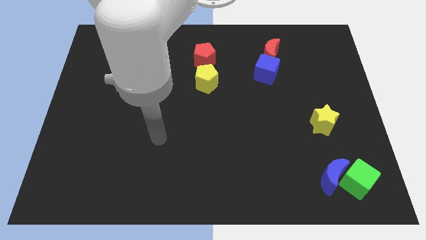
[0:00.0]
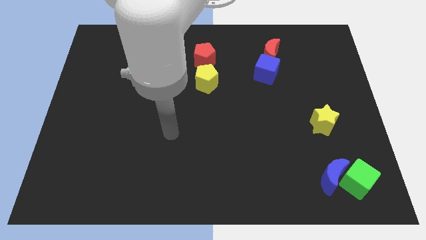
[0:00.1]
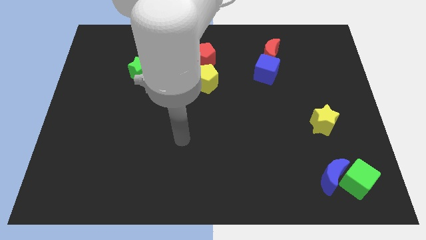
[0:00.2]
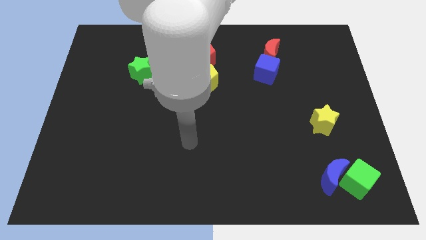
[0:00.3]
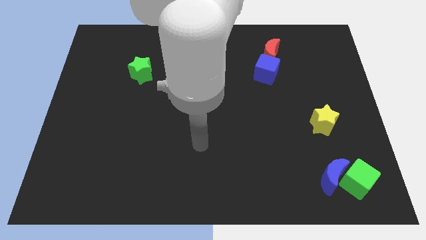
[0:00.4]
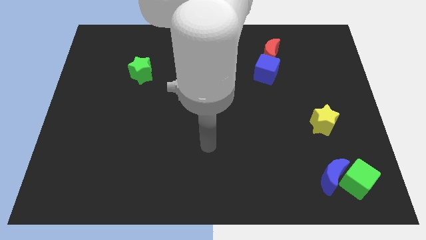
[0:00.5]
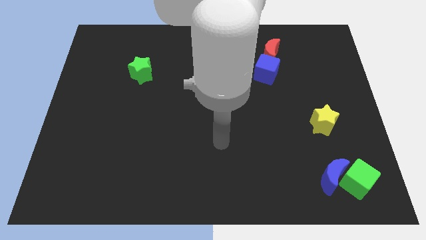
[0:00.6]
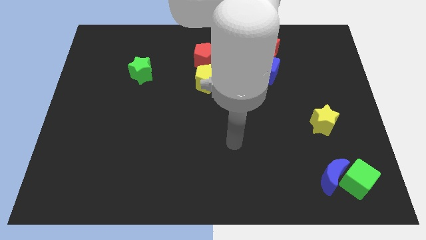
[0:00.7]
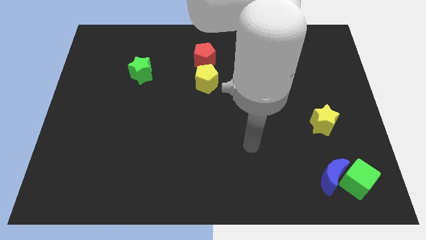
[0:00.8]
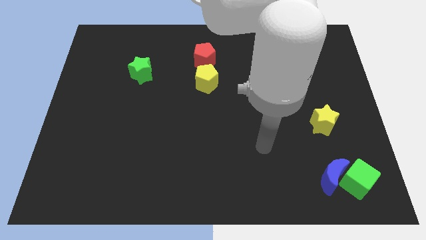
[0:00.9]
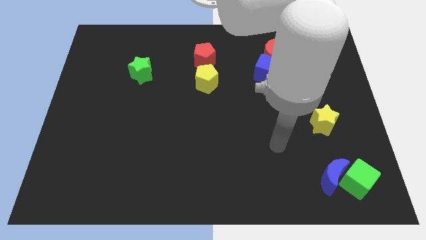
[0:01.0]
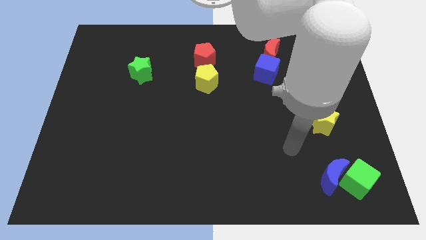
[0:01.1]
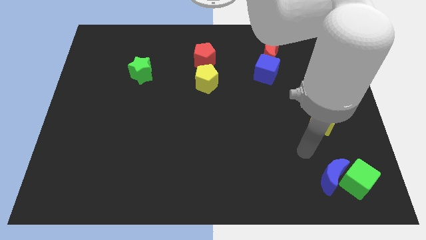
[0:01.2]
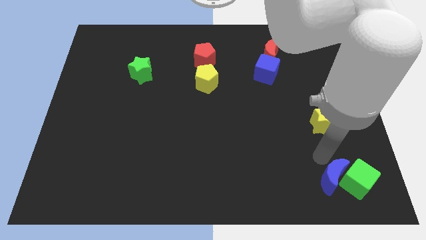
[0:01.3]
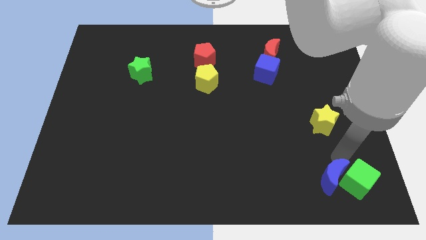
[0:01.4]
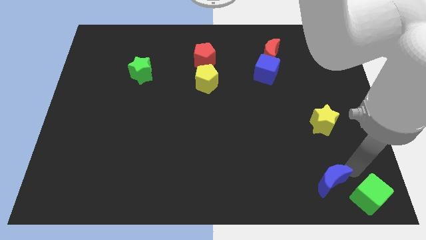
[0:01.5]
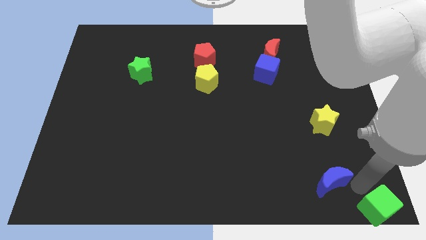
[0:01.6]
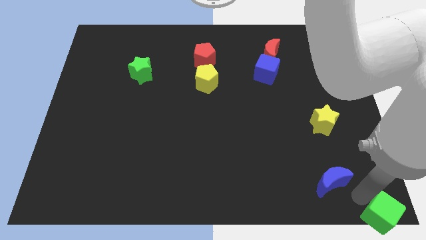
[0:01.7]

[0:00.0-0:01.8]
pull the blue moon apart from the green cube

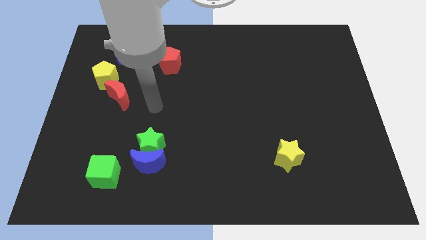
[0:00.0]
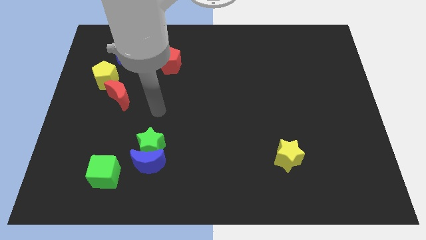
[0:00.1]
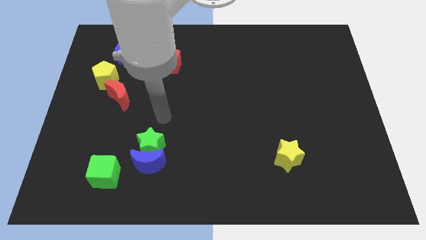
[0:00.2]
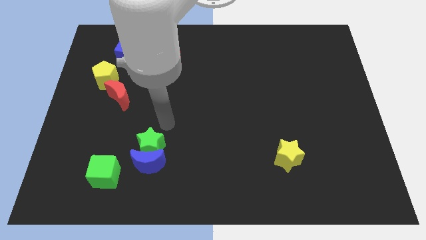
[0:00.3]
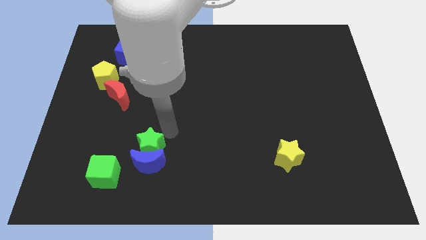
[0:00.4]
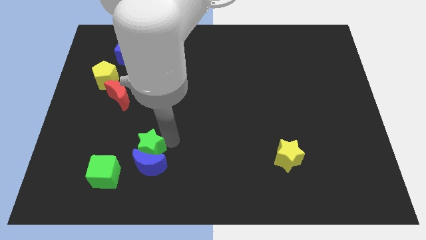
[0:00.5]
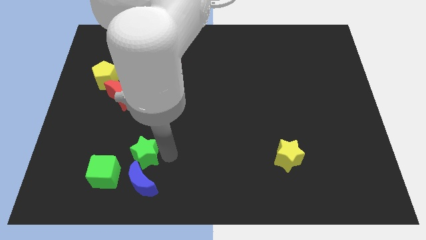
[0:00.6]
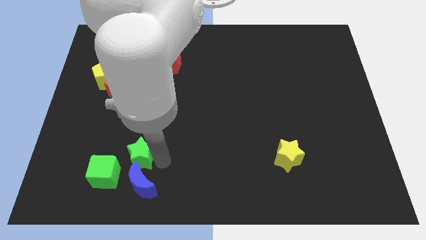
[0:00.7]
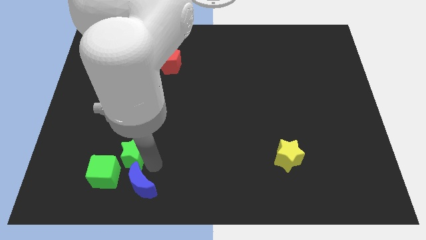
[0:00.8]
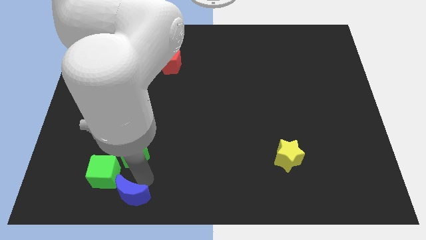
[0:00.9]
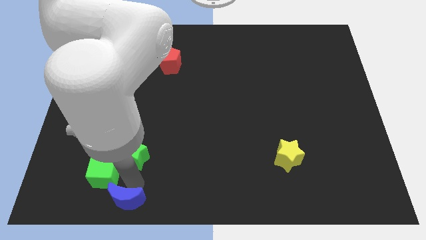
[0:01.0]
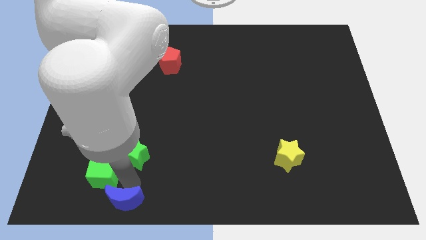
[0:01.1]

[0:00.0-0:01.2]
pull the green star apart from the blue moon

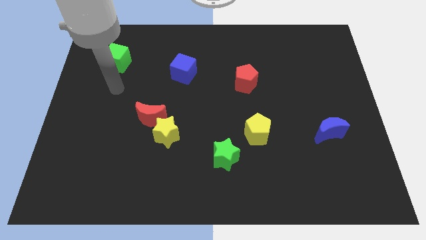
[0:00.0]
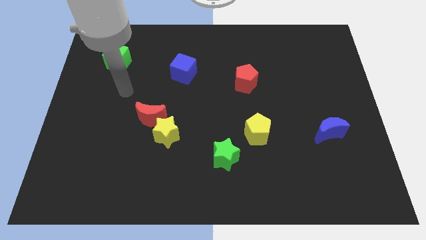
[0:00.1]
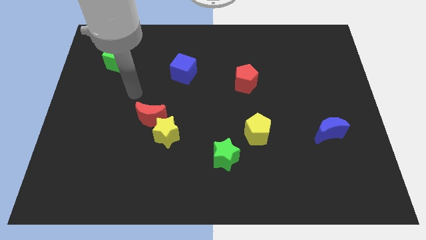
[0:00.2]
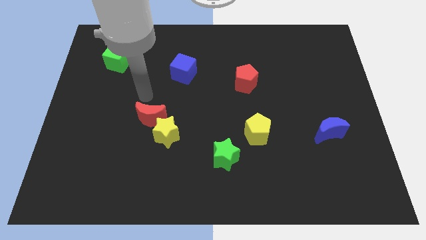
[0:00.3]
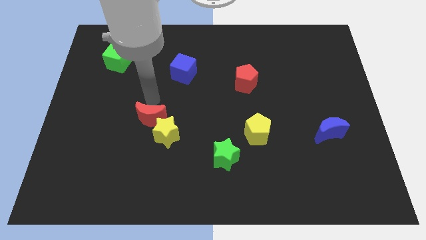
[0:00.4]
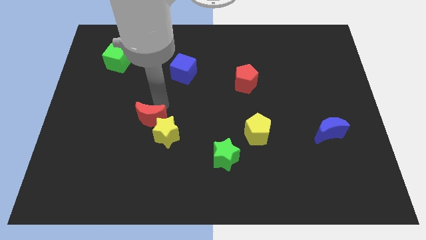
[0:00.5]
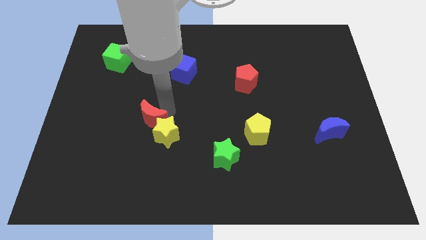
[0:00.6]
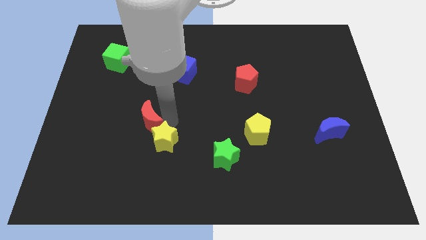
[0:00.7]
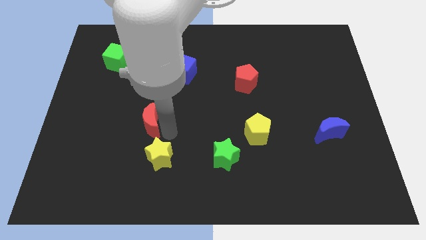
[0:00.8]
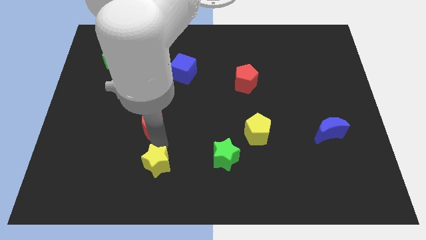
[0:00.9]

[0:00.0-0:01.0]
pull the red moon apart from the yellow star

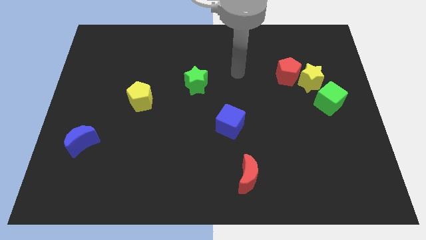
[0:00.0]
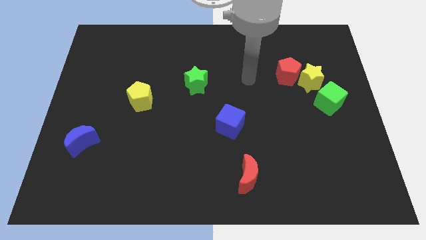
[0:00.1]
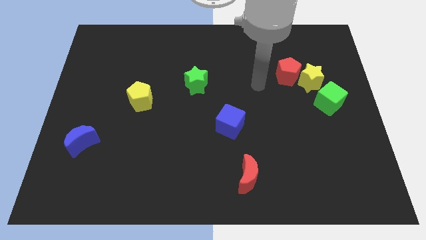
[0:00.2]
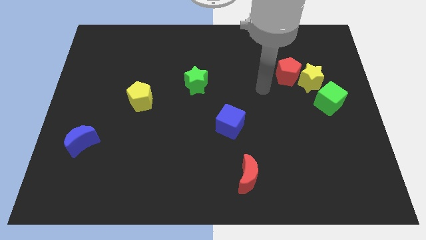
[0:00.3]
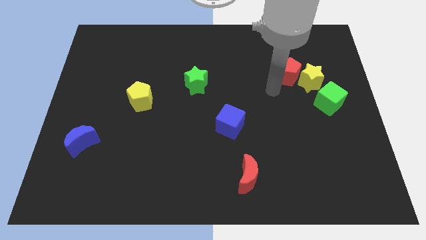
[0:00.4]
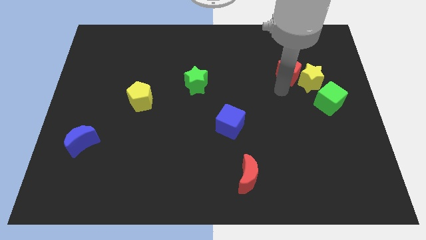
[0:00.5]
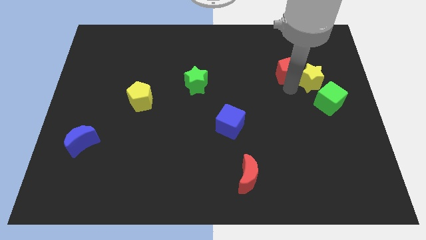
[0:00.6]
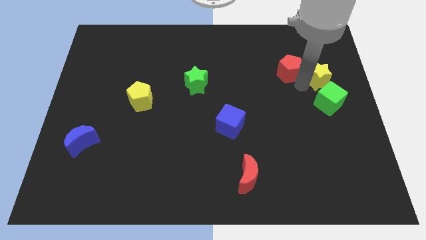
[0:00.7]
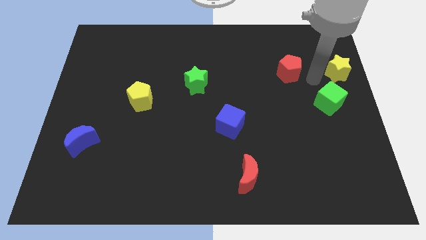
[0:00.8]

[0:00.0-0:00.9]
pull the red pentagon apart from the yellow star

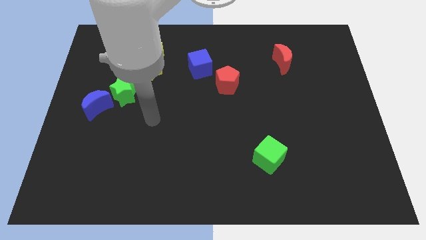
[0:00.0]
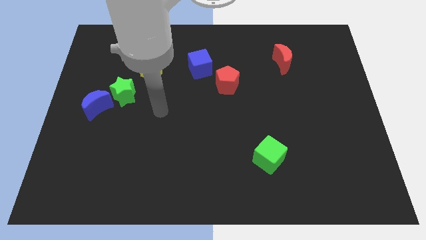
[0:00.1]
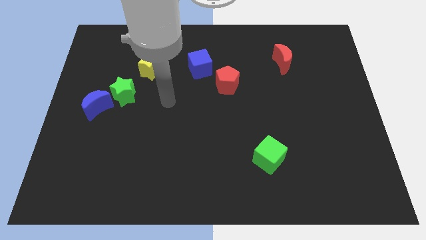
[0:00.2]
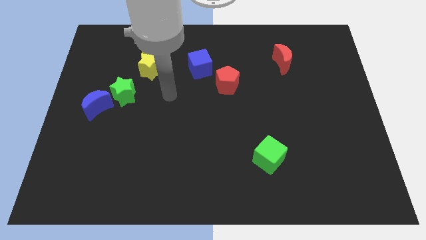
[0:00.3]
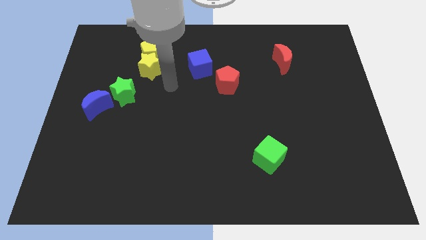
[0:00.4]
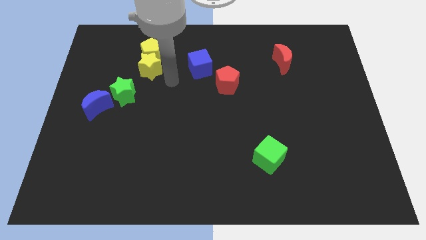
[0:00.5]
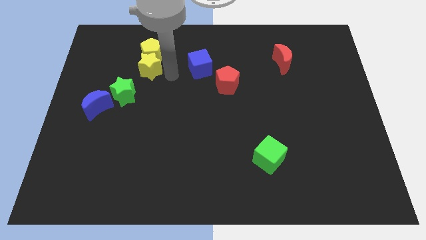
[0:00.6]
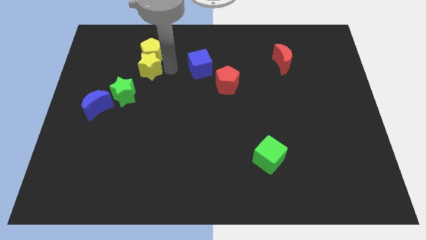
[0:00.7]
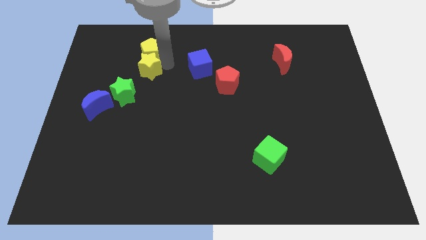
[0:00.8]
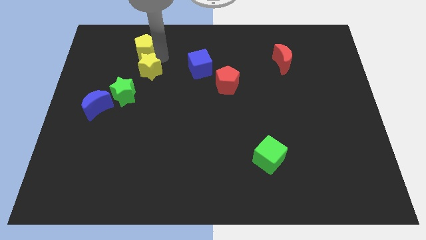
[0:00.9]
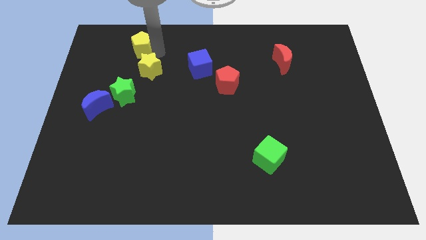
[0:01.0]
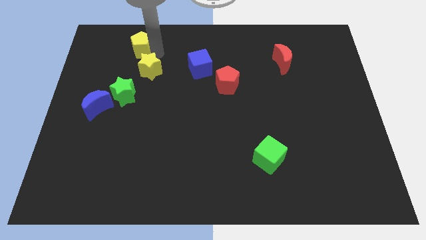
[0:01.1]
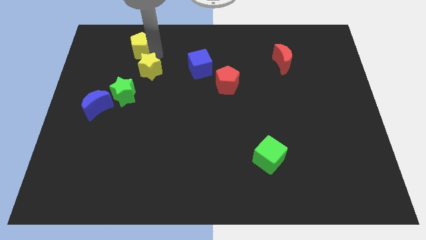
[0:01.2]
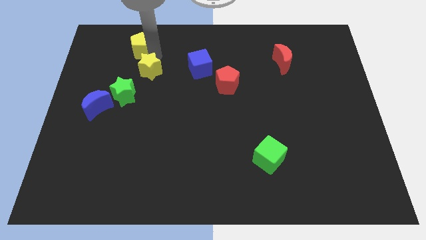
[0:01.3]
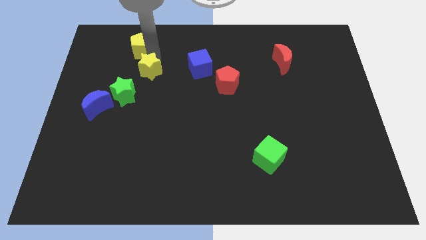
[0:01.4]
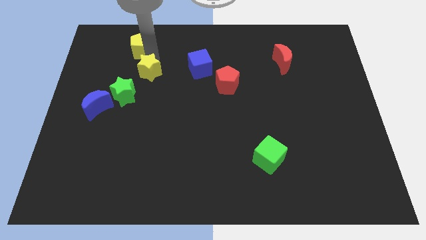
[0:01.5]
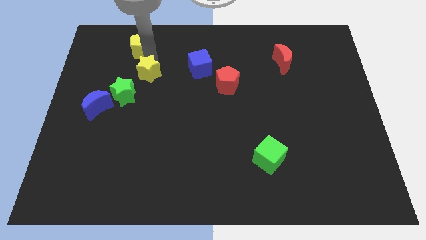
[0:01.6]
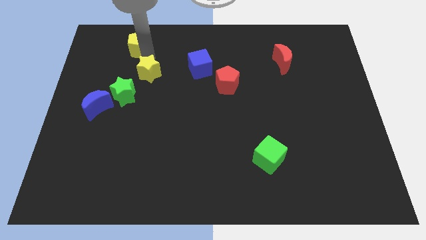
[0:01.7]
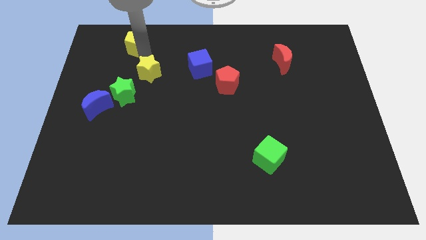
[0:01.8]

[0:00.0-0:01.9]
separate the yellow star from the yellow pentagon

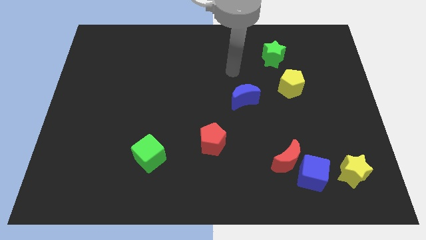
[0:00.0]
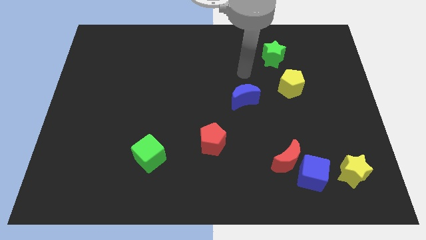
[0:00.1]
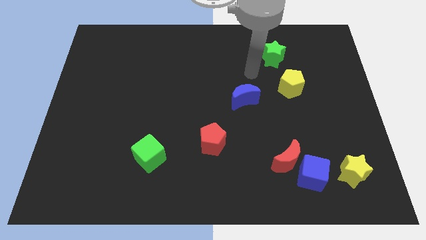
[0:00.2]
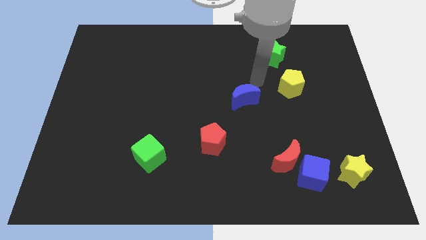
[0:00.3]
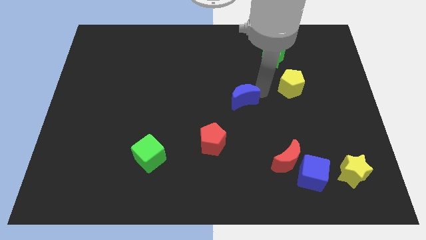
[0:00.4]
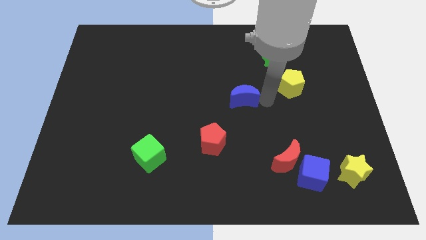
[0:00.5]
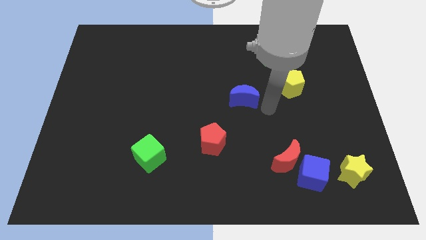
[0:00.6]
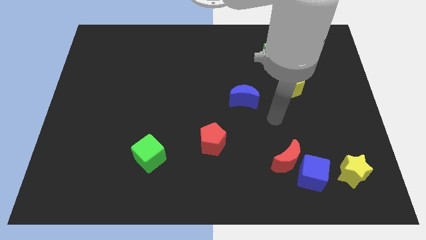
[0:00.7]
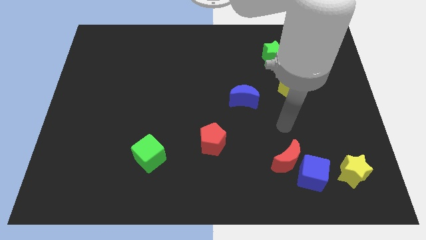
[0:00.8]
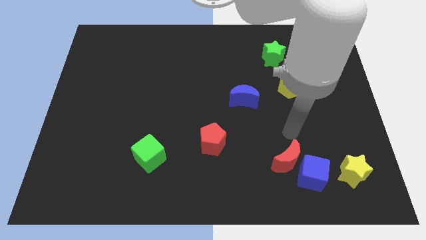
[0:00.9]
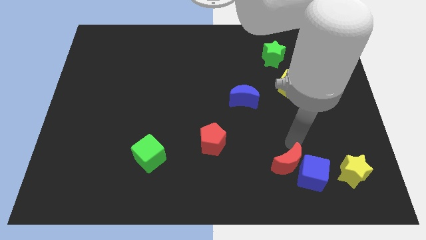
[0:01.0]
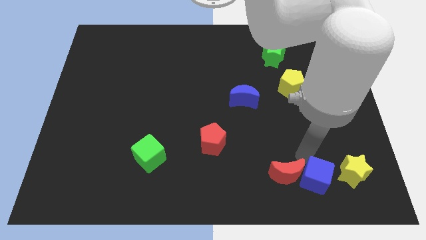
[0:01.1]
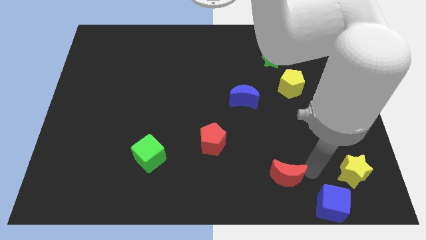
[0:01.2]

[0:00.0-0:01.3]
separate the red moon from the blue cube

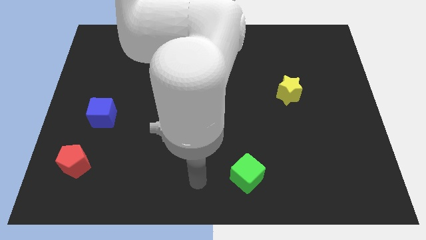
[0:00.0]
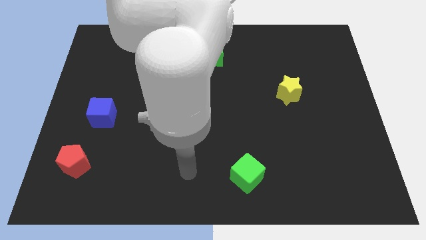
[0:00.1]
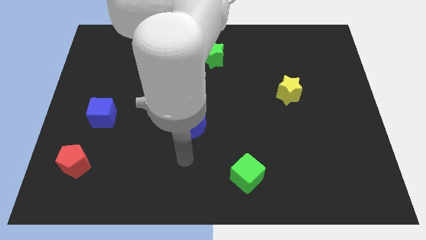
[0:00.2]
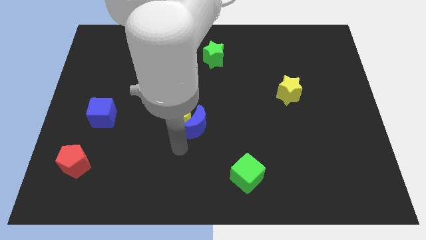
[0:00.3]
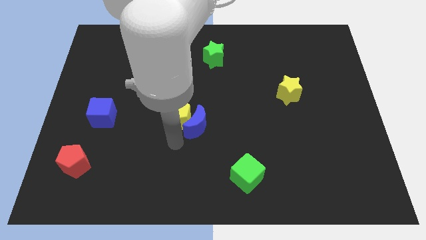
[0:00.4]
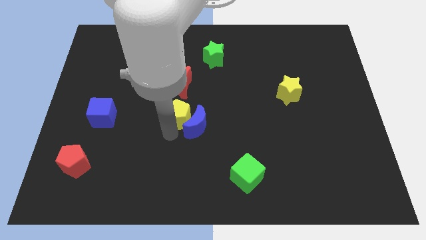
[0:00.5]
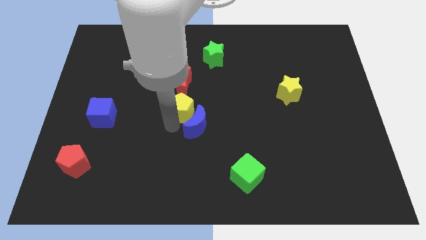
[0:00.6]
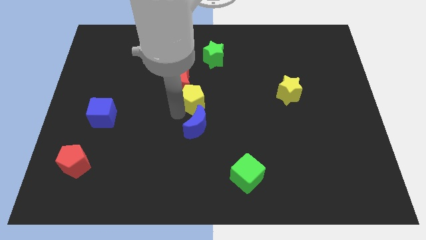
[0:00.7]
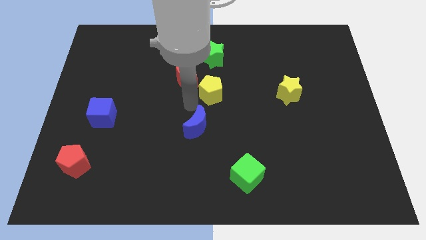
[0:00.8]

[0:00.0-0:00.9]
pull the blue moon apart from the yellow pentagon

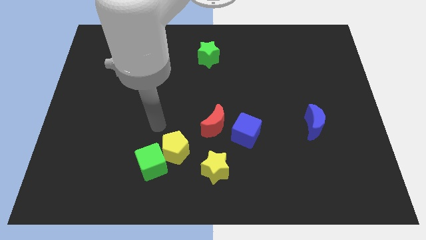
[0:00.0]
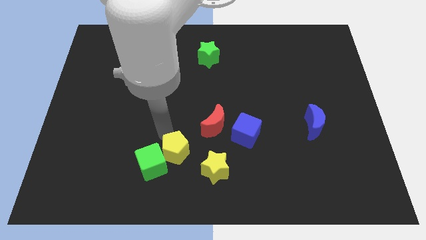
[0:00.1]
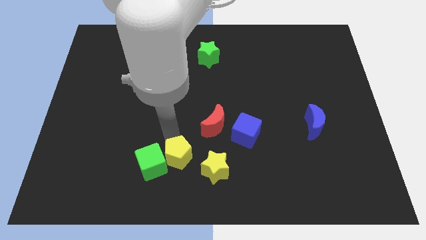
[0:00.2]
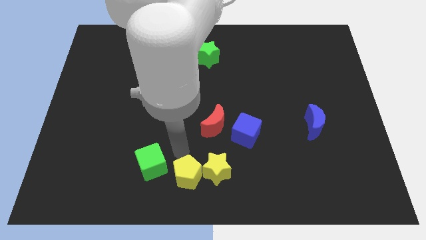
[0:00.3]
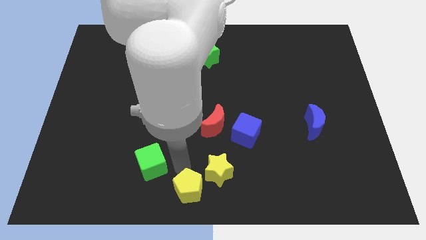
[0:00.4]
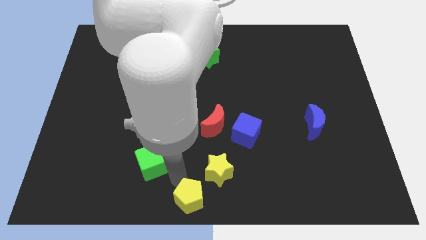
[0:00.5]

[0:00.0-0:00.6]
pull the green cube apart from the yellow pentagon
